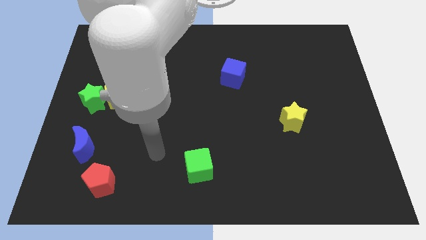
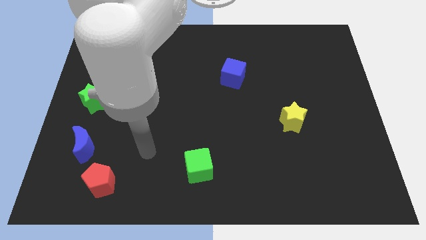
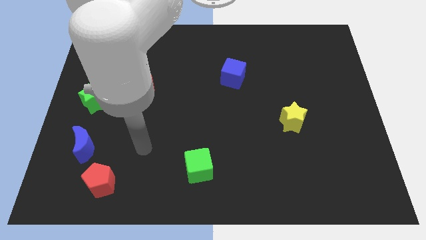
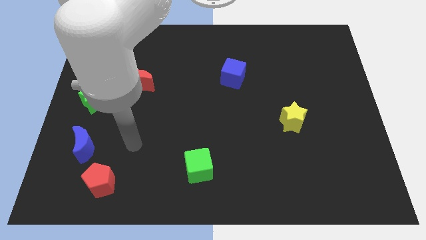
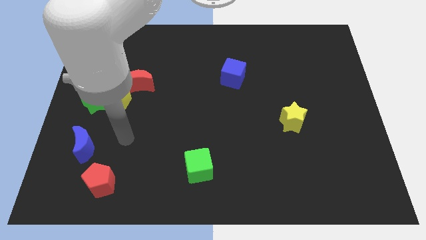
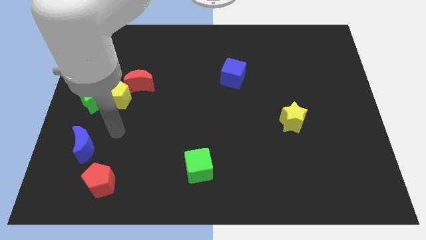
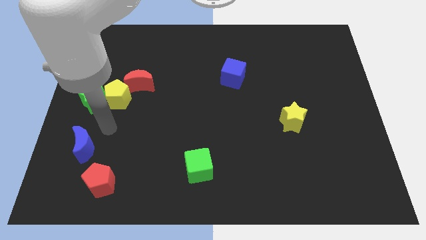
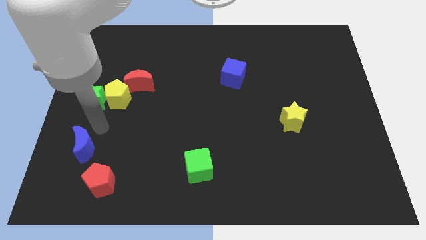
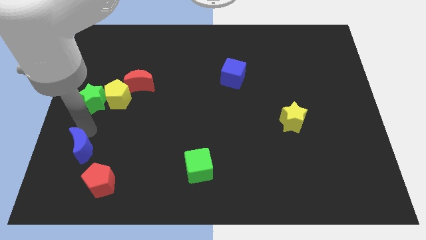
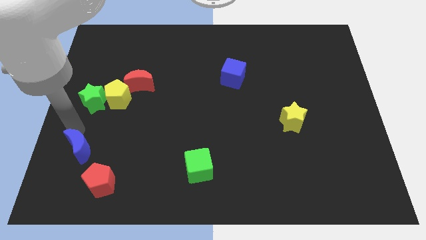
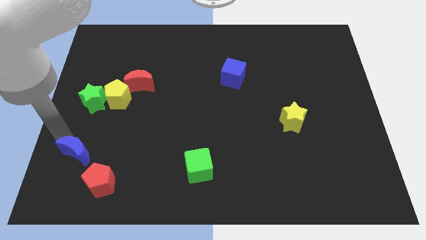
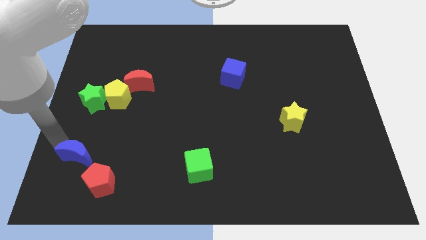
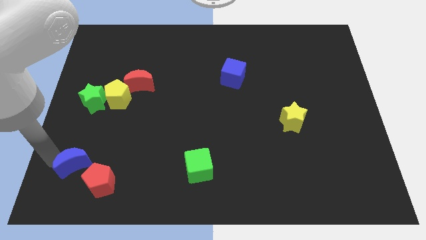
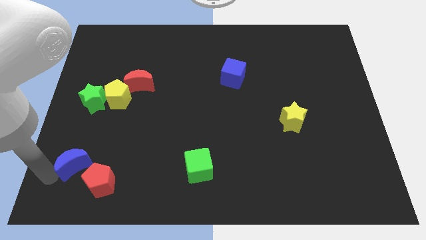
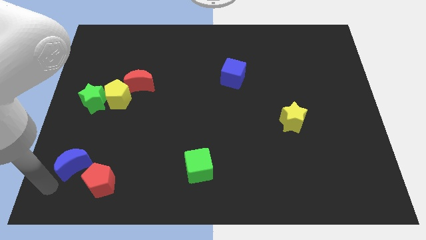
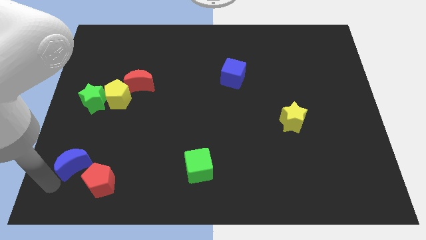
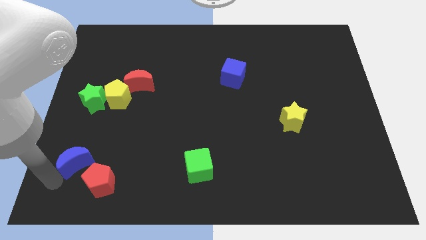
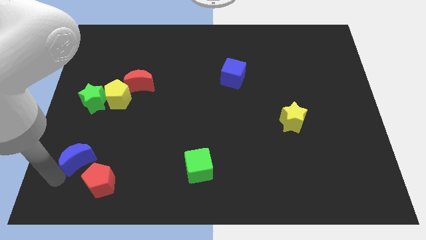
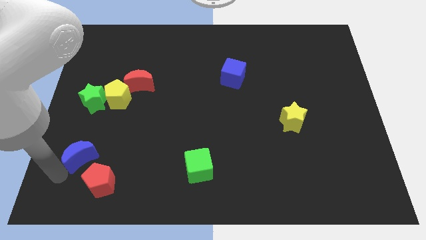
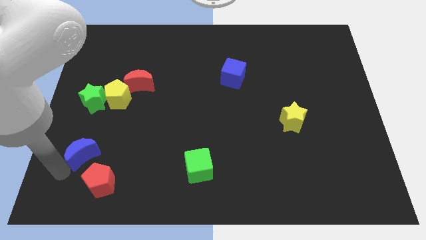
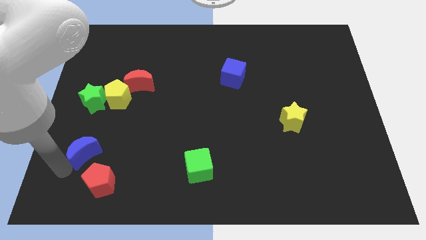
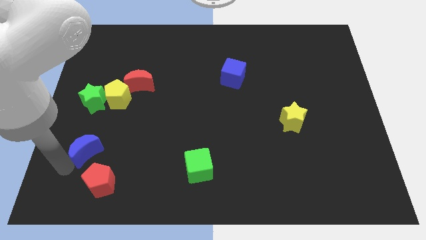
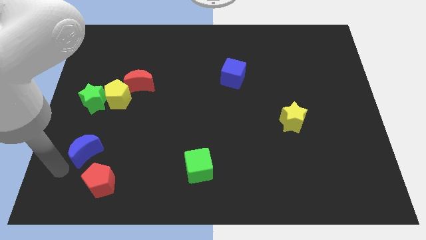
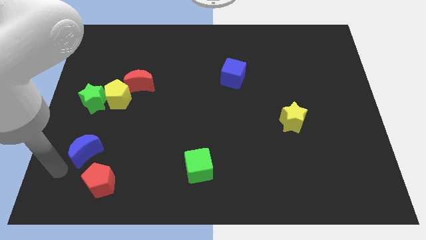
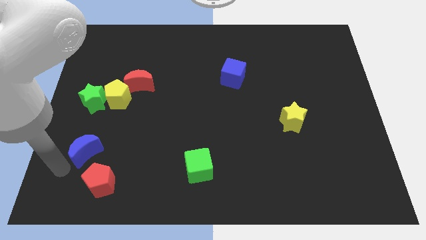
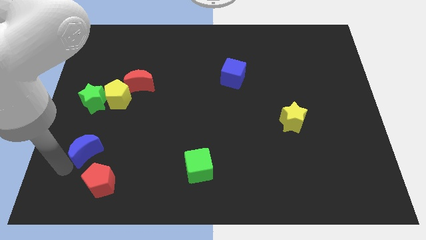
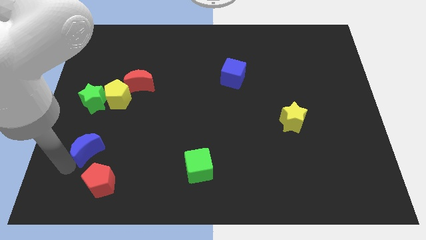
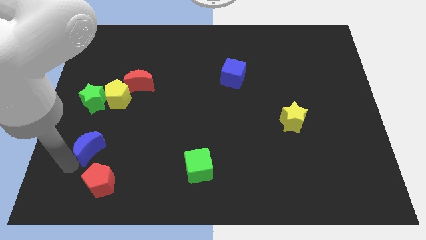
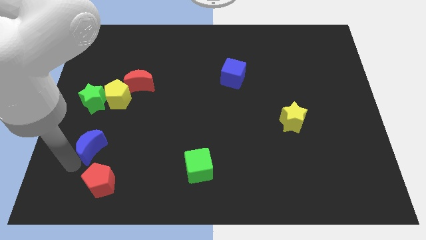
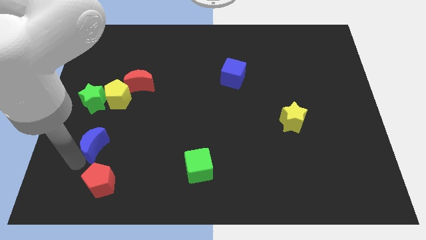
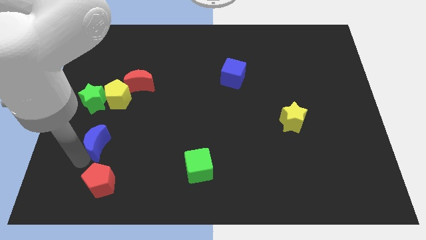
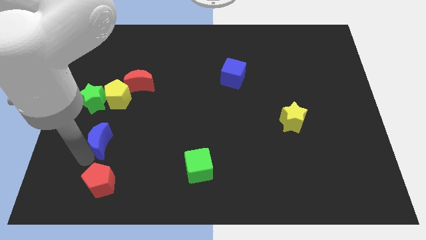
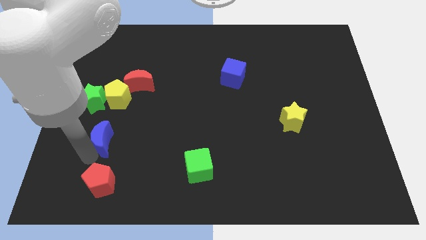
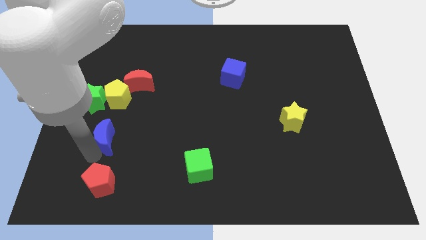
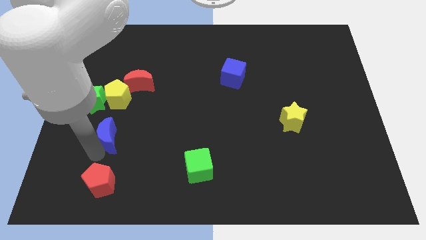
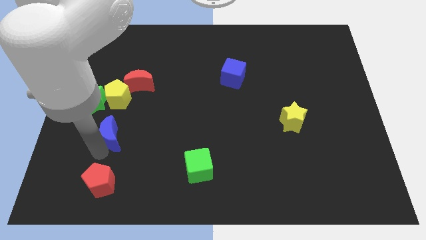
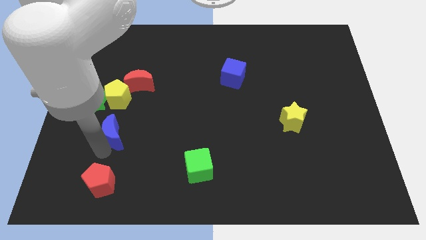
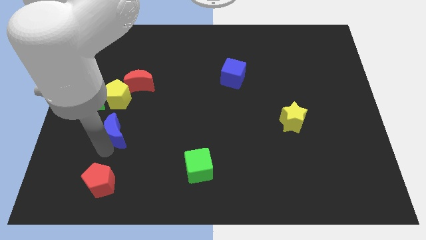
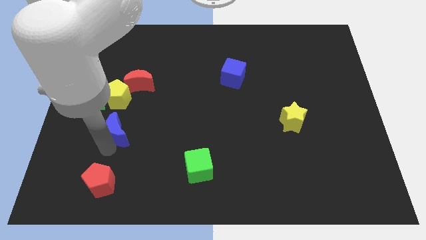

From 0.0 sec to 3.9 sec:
slightly slide the blue moon diagonally upwards and to the right

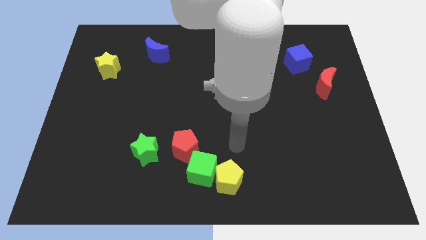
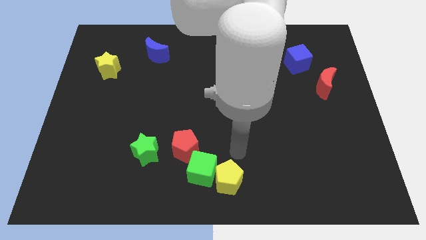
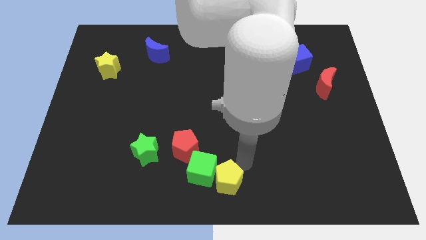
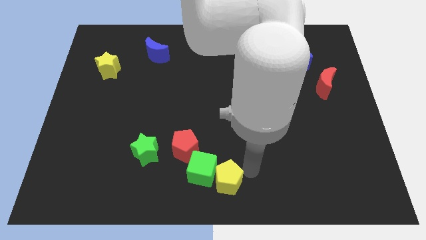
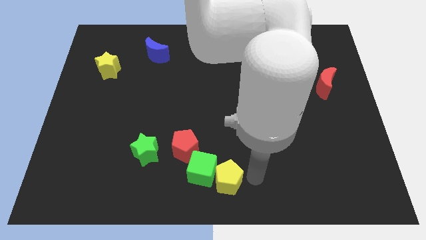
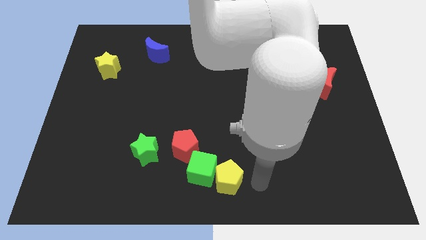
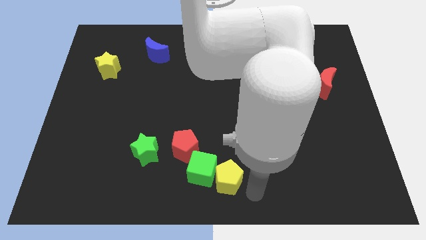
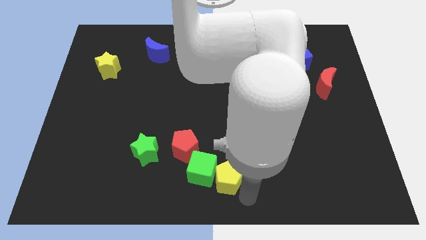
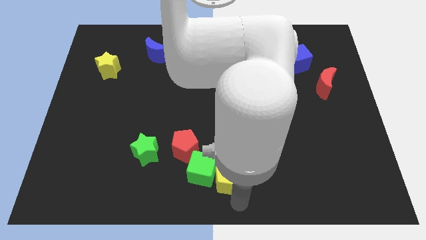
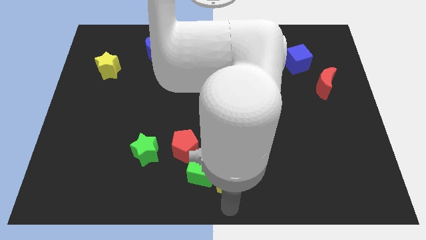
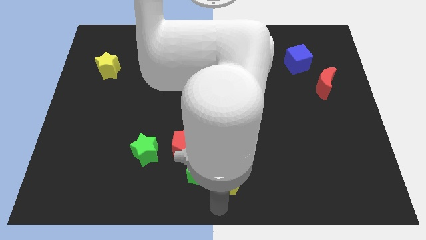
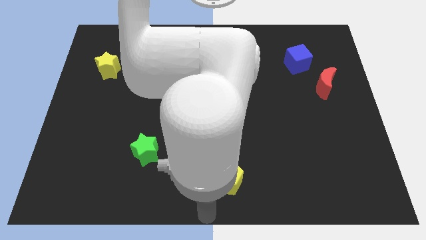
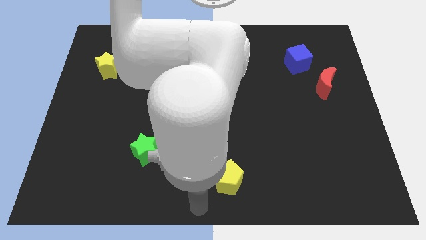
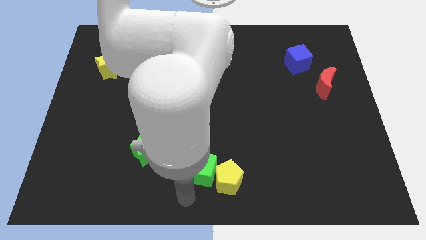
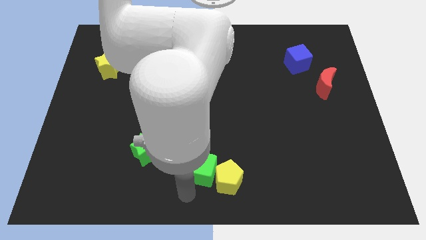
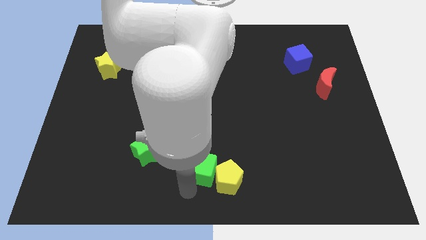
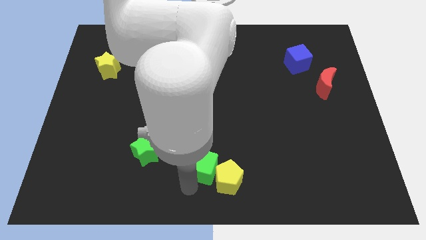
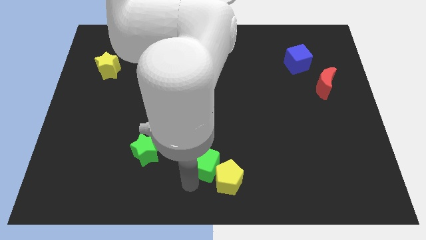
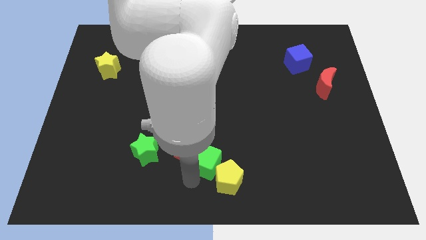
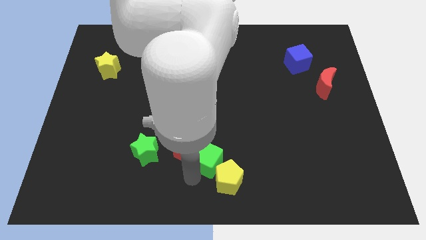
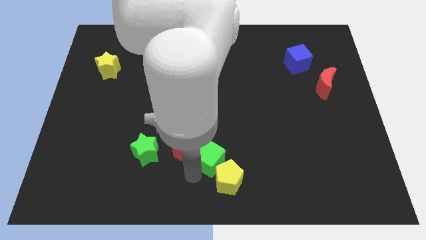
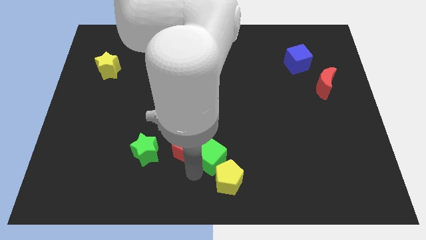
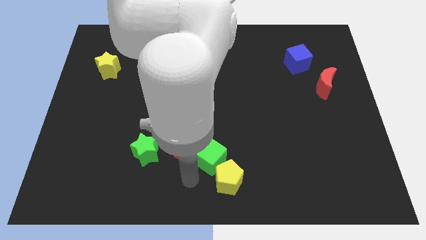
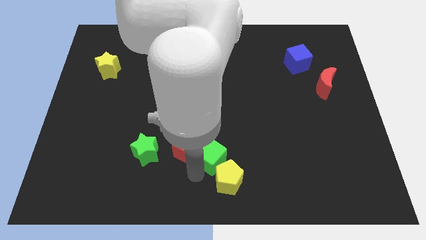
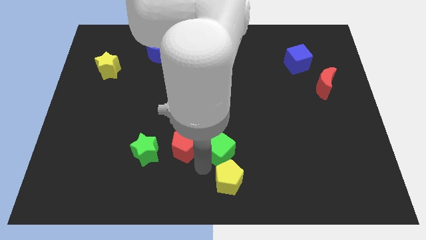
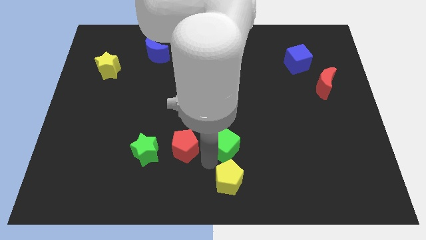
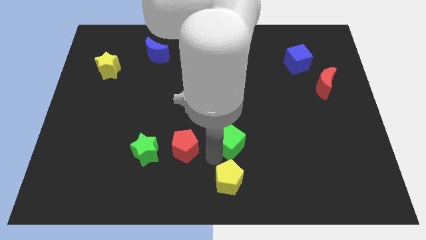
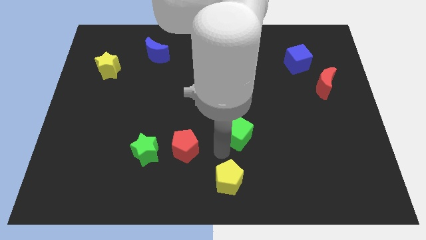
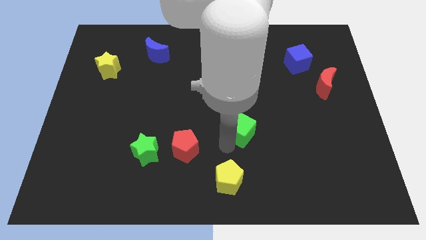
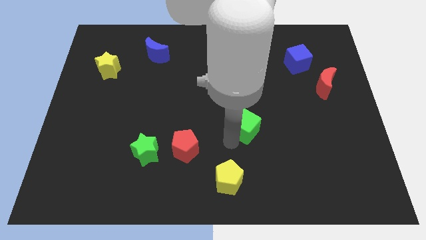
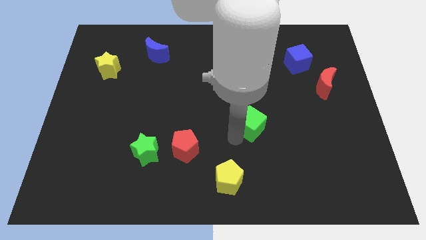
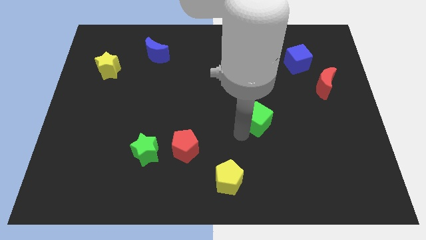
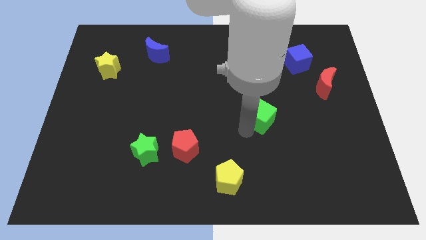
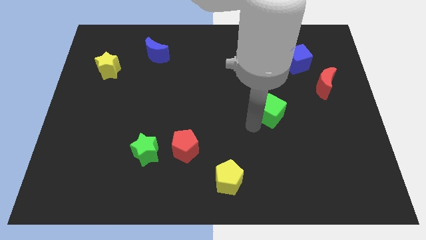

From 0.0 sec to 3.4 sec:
slide the green cube upwards and right

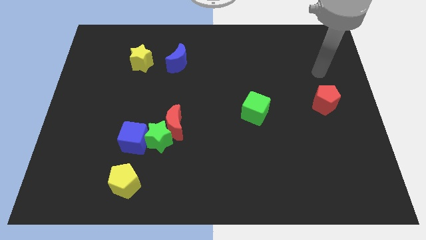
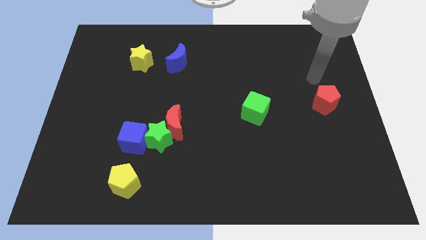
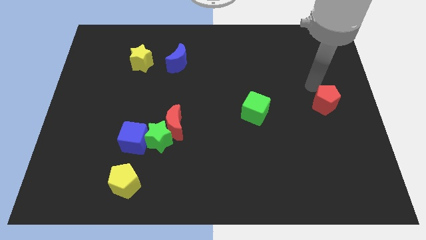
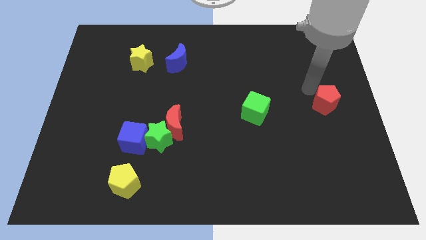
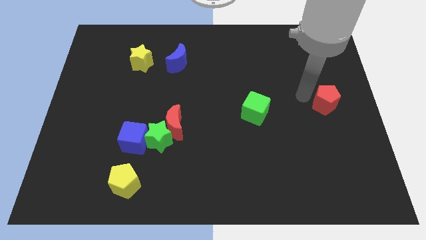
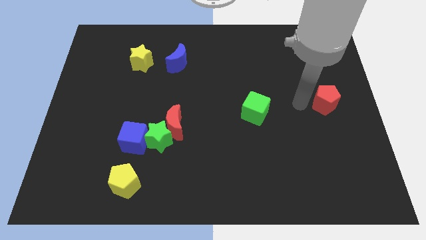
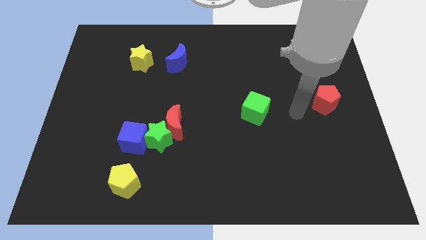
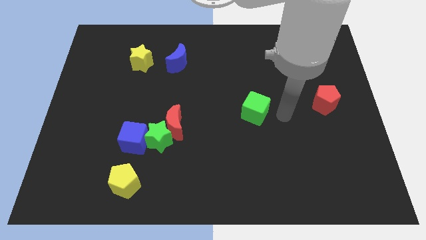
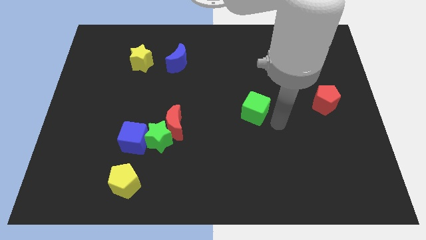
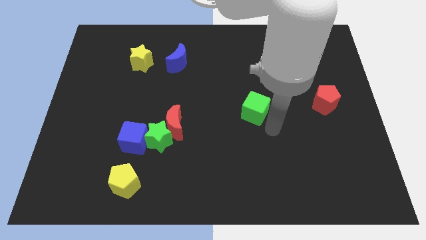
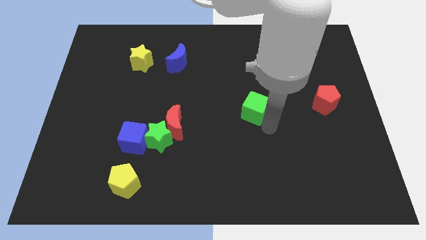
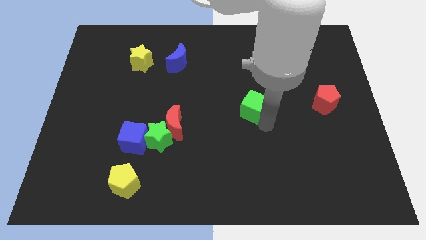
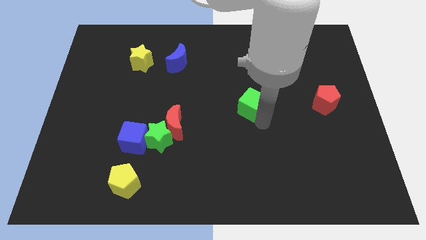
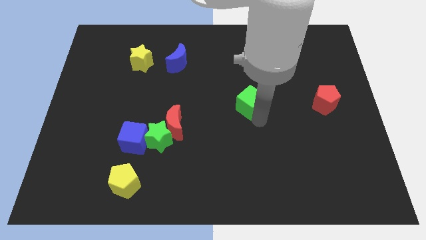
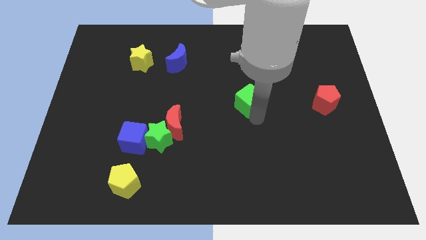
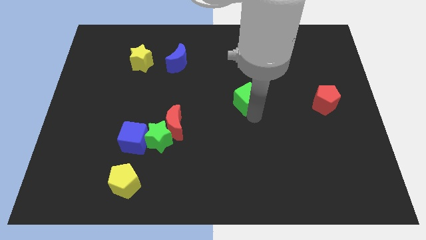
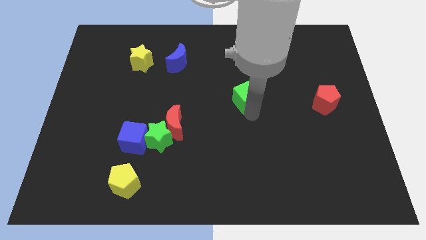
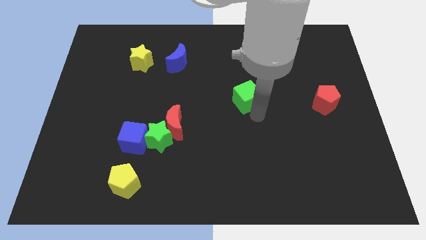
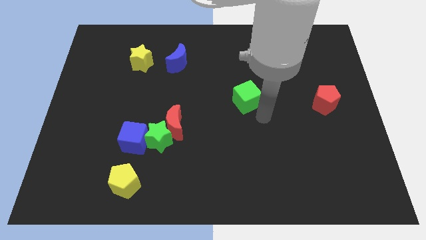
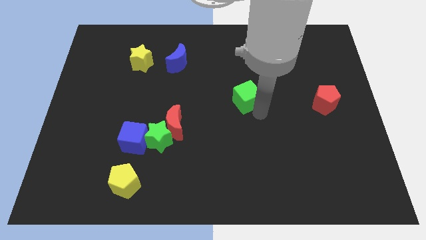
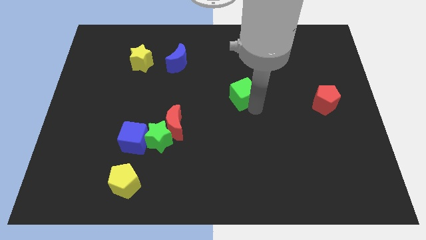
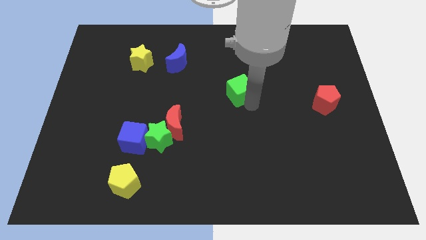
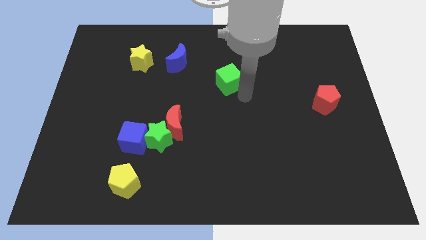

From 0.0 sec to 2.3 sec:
slide the green cube up and then to the left slightly
